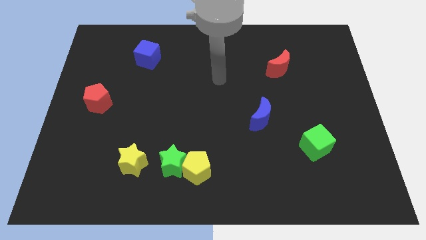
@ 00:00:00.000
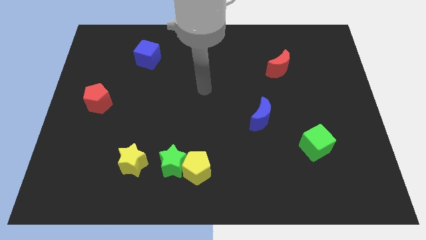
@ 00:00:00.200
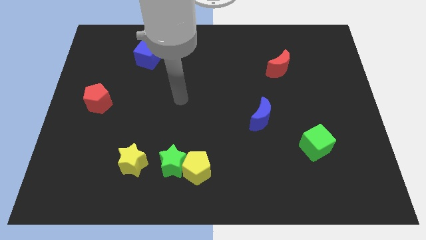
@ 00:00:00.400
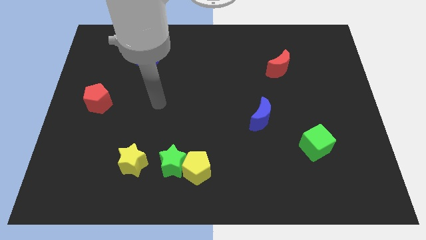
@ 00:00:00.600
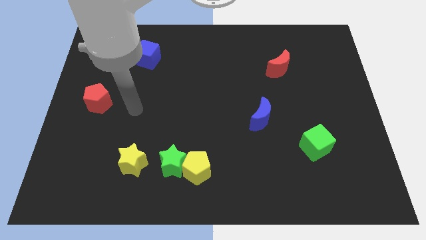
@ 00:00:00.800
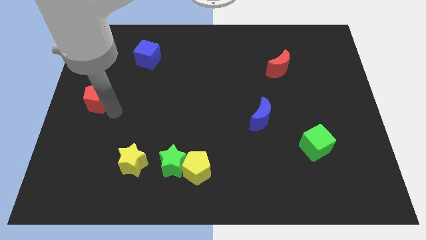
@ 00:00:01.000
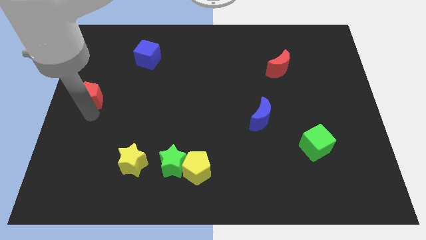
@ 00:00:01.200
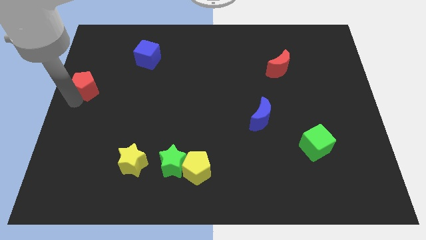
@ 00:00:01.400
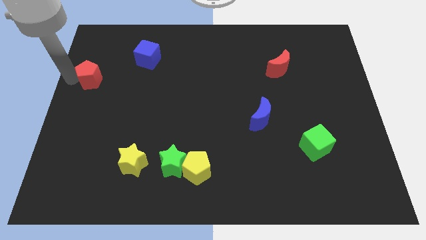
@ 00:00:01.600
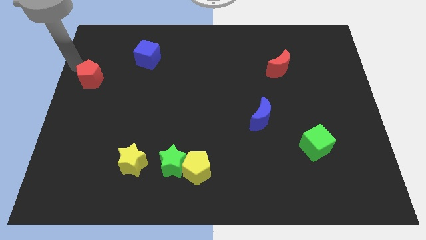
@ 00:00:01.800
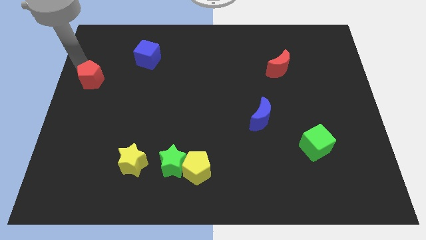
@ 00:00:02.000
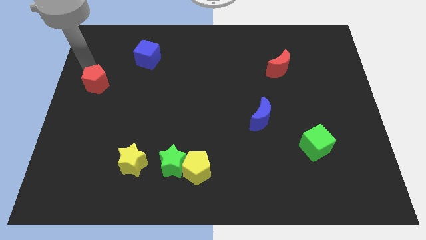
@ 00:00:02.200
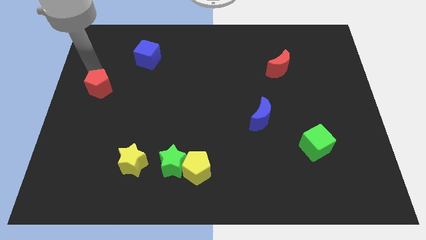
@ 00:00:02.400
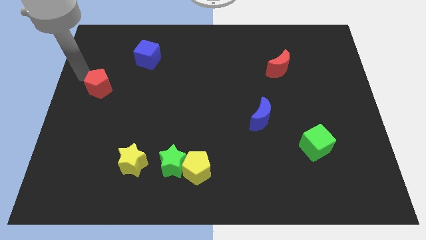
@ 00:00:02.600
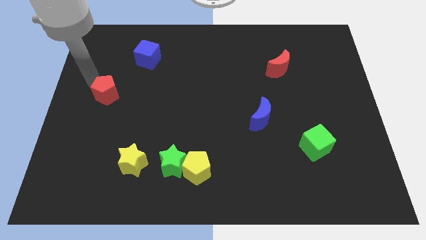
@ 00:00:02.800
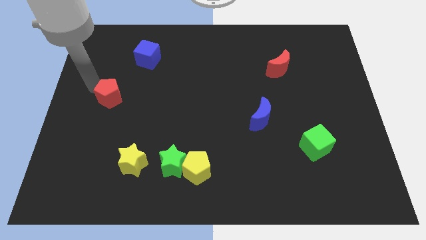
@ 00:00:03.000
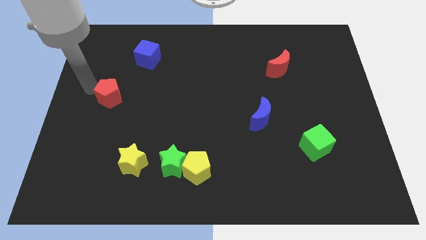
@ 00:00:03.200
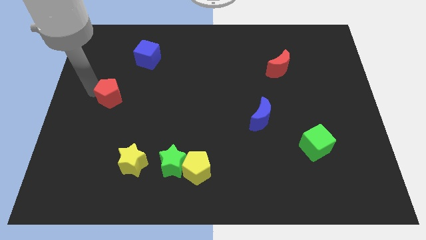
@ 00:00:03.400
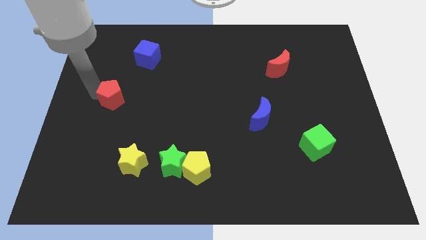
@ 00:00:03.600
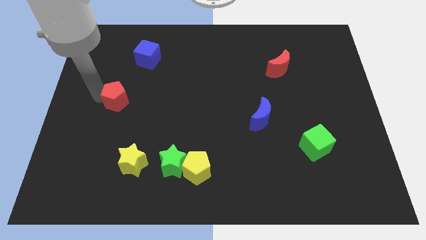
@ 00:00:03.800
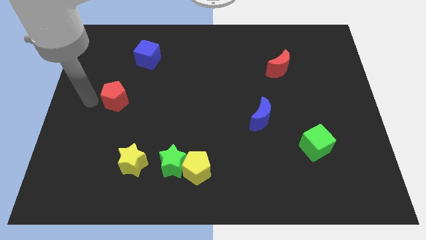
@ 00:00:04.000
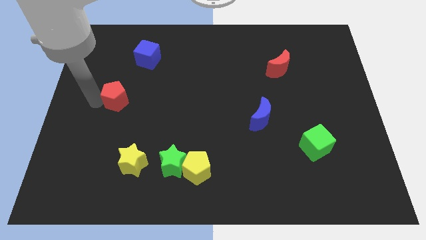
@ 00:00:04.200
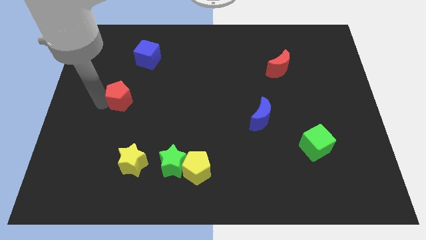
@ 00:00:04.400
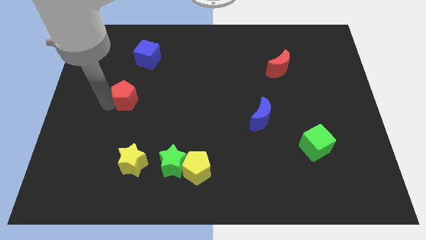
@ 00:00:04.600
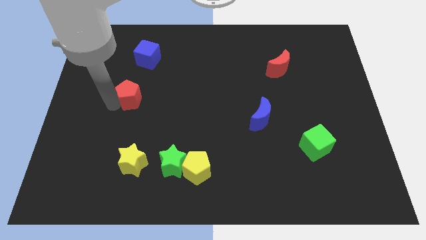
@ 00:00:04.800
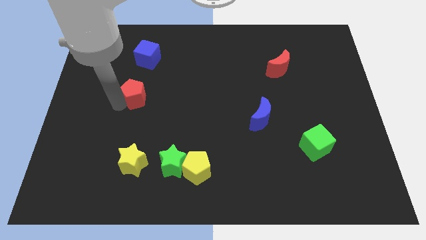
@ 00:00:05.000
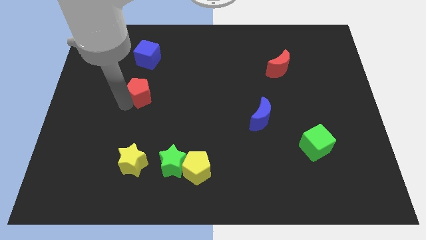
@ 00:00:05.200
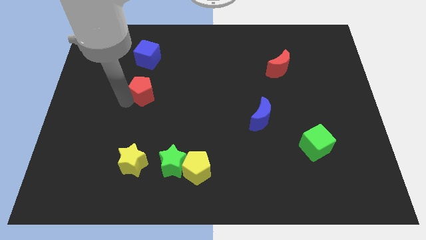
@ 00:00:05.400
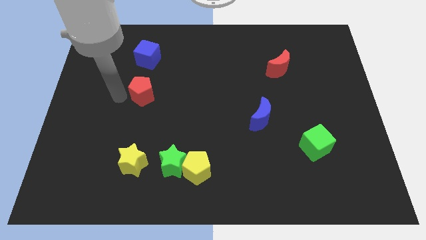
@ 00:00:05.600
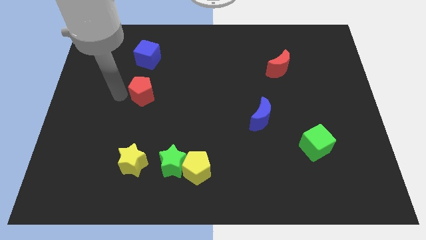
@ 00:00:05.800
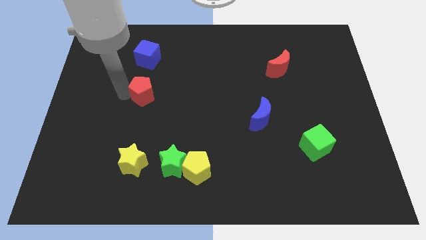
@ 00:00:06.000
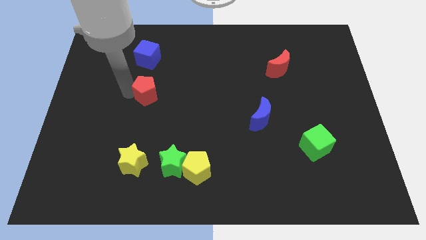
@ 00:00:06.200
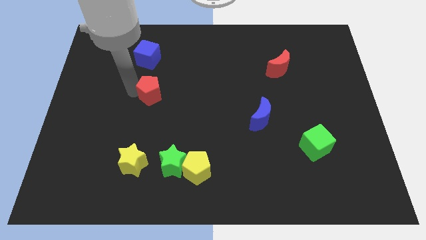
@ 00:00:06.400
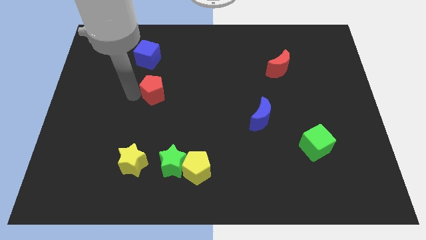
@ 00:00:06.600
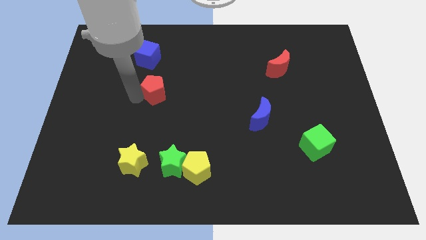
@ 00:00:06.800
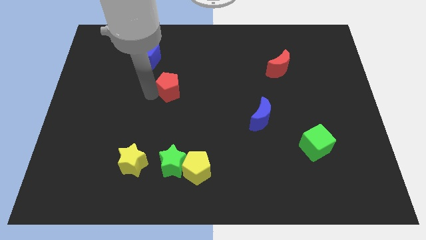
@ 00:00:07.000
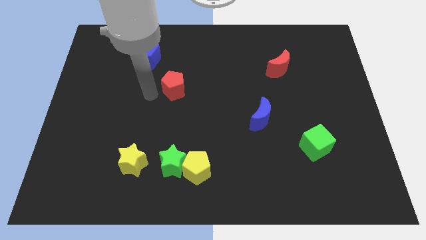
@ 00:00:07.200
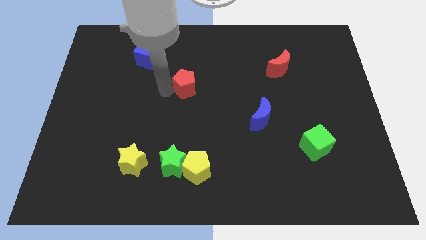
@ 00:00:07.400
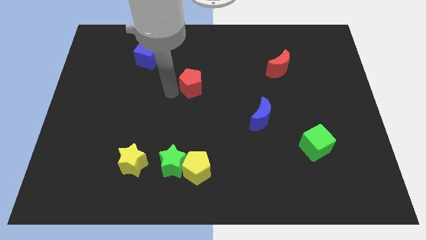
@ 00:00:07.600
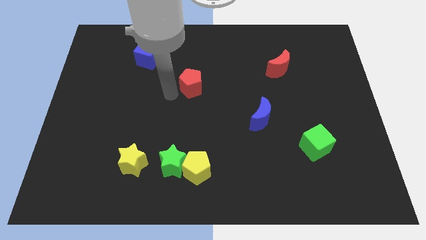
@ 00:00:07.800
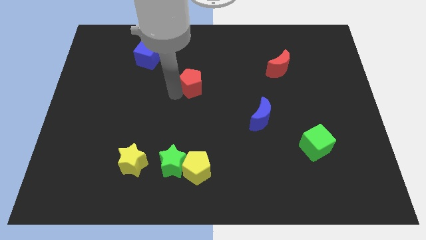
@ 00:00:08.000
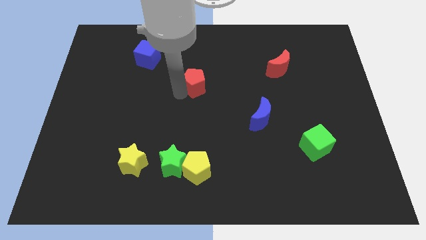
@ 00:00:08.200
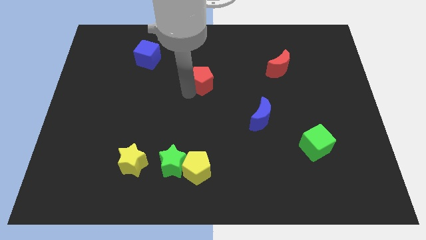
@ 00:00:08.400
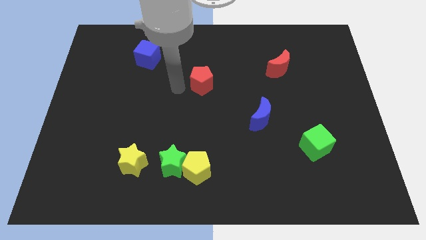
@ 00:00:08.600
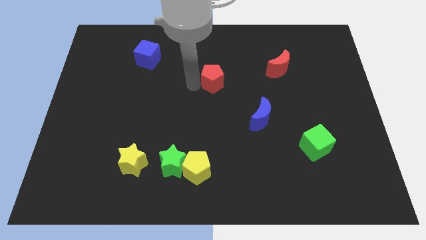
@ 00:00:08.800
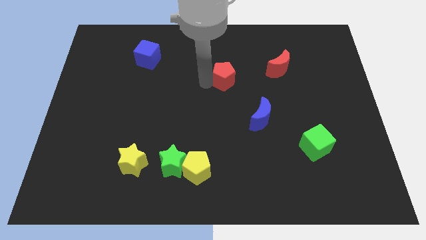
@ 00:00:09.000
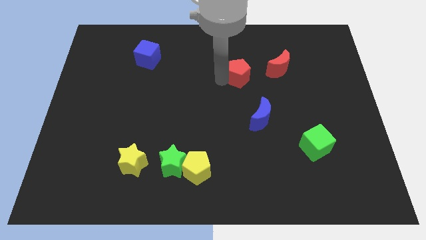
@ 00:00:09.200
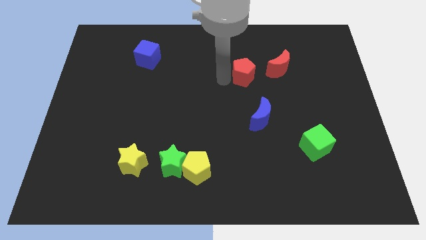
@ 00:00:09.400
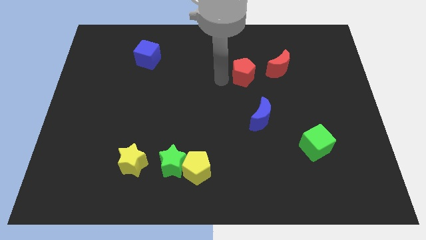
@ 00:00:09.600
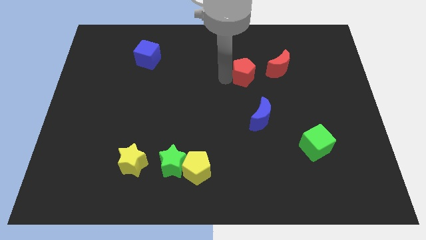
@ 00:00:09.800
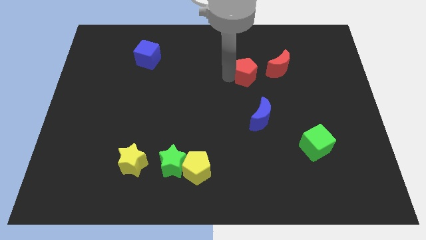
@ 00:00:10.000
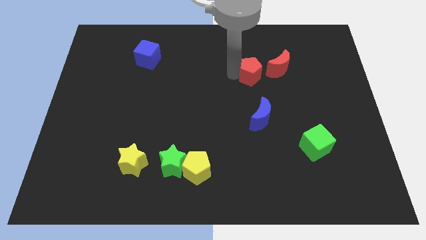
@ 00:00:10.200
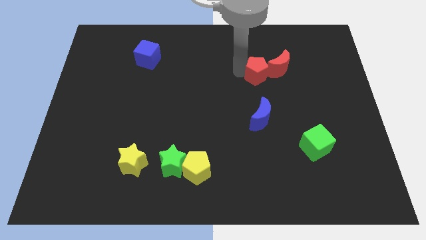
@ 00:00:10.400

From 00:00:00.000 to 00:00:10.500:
move the red pentagon to the red moon

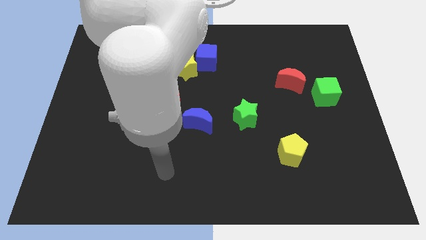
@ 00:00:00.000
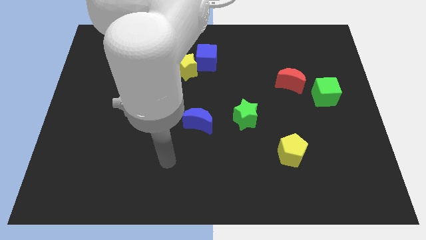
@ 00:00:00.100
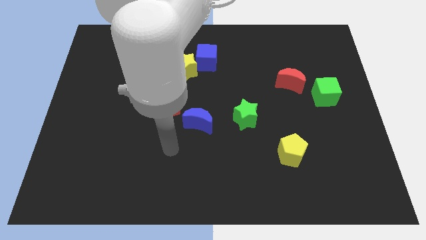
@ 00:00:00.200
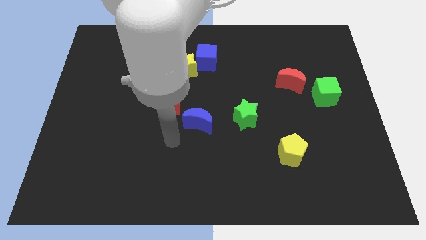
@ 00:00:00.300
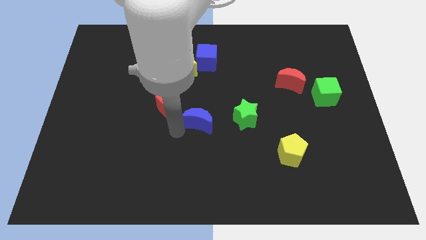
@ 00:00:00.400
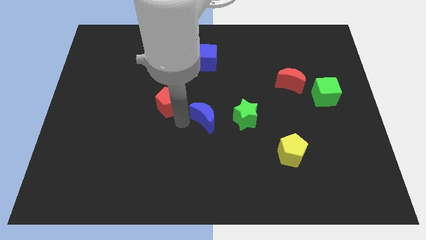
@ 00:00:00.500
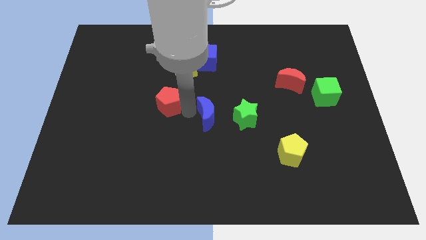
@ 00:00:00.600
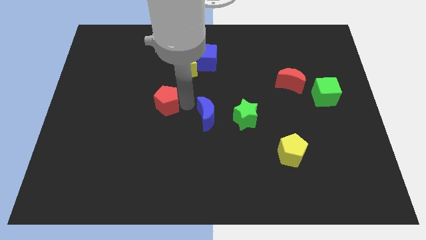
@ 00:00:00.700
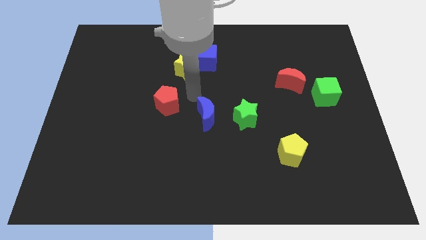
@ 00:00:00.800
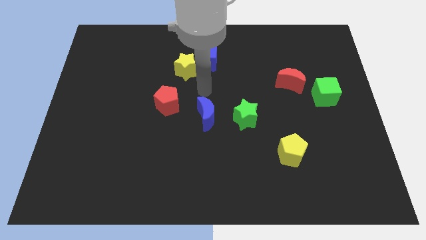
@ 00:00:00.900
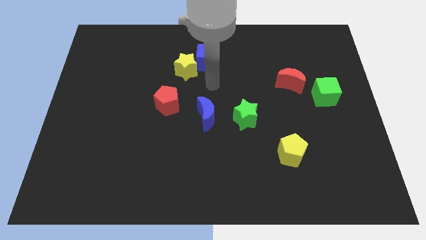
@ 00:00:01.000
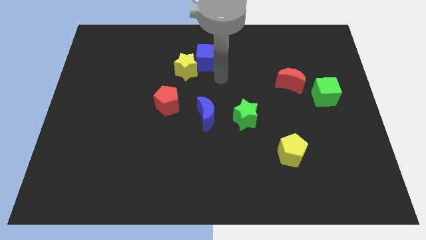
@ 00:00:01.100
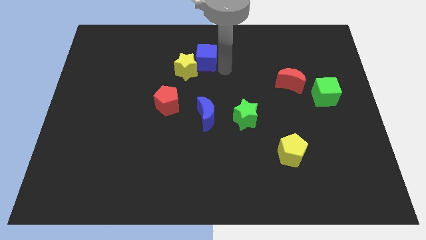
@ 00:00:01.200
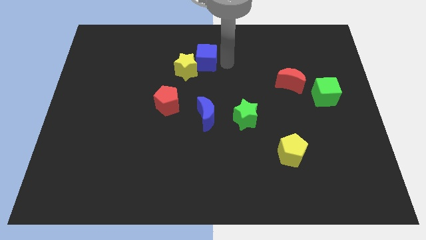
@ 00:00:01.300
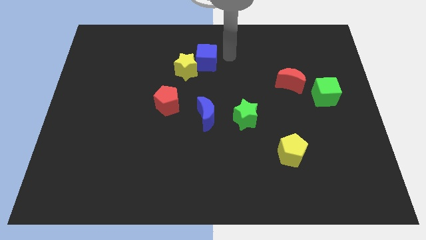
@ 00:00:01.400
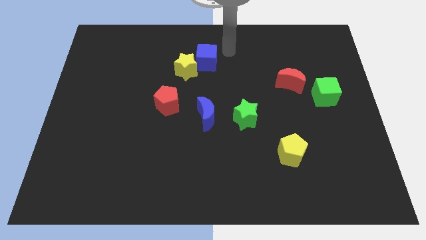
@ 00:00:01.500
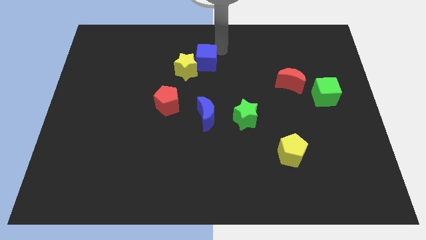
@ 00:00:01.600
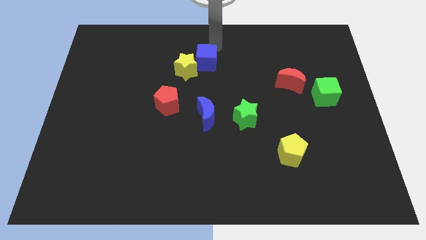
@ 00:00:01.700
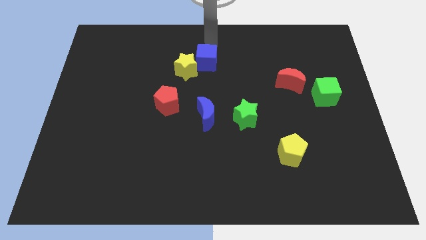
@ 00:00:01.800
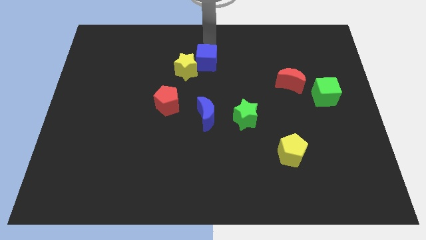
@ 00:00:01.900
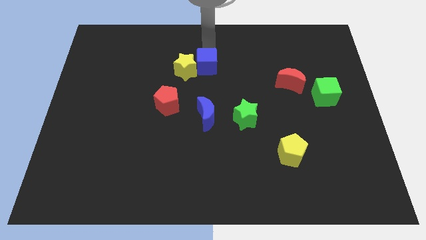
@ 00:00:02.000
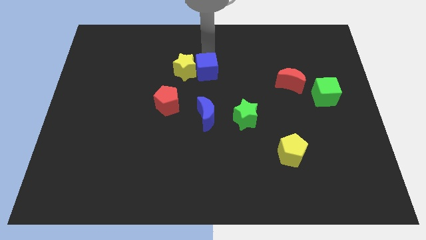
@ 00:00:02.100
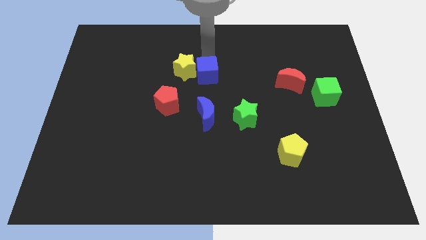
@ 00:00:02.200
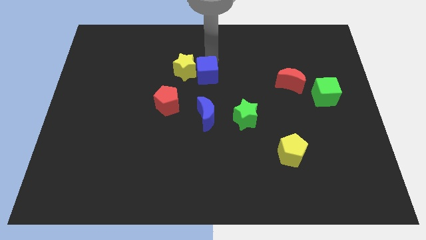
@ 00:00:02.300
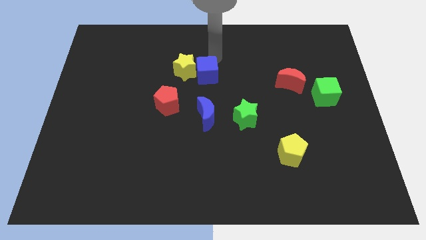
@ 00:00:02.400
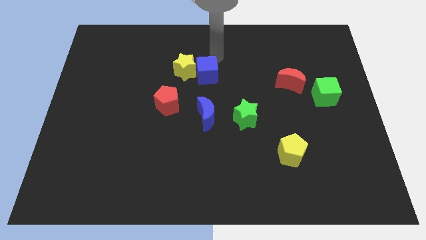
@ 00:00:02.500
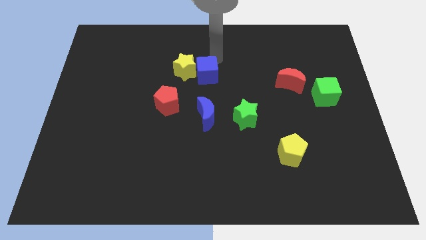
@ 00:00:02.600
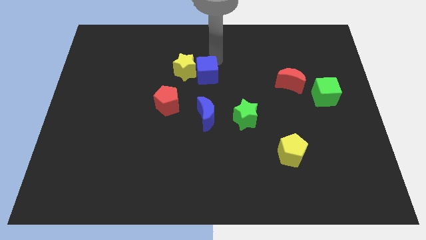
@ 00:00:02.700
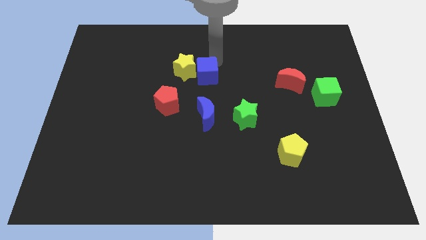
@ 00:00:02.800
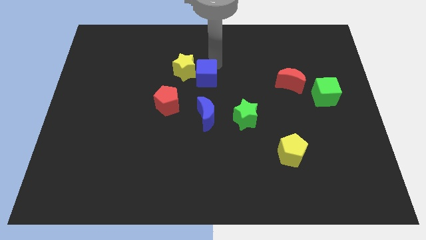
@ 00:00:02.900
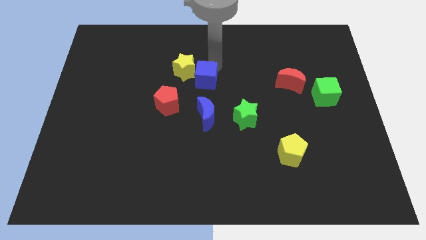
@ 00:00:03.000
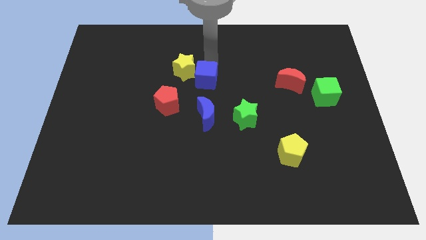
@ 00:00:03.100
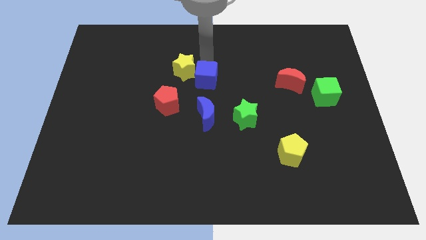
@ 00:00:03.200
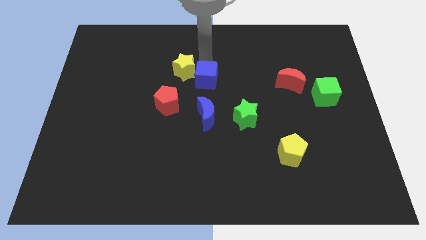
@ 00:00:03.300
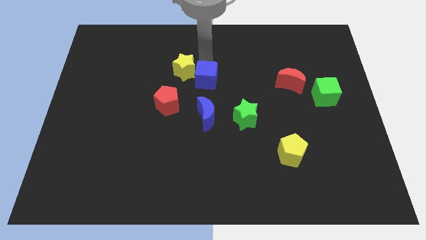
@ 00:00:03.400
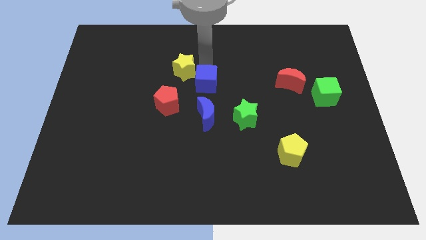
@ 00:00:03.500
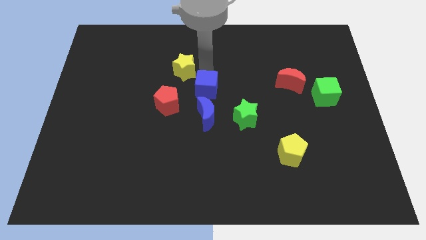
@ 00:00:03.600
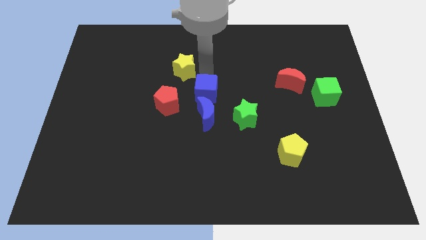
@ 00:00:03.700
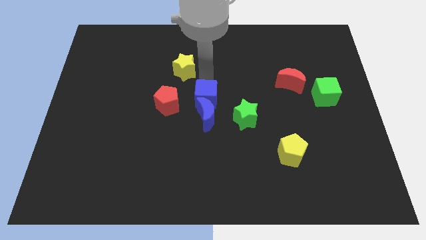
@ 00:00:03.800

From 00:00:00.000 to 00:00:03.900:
slide the blue cube towards the blue moon
